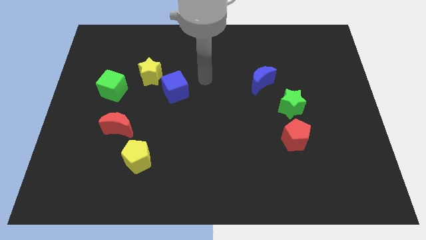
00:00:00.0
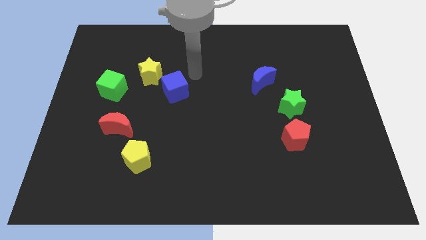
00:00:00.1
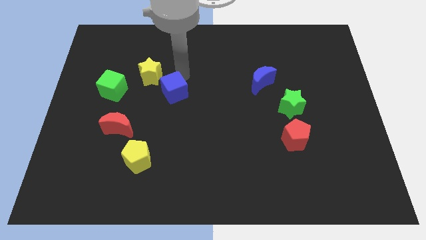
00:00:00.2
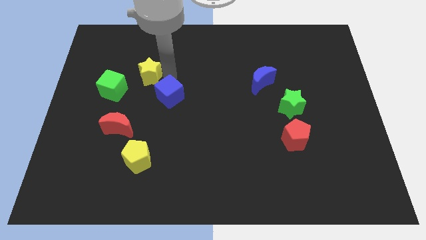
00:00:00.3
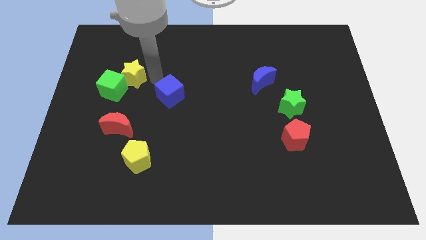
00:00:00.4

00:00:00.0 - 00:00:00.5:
separate the blue cube from the yellow star

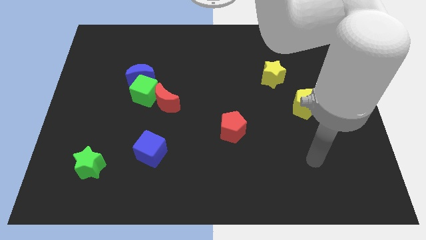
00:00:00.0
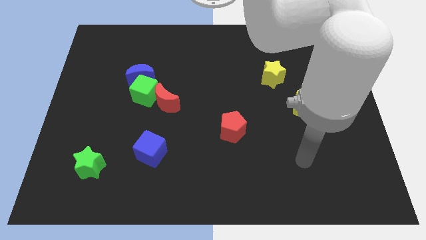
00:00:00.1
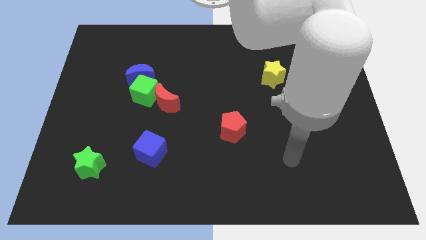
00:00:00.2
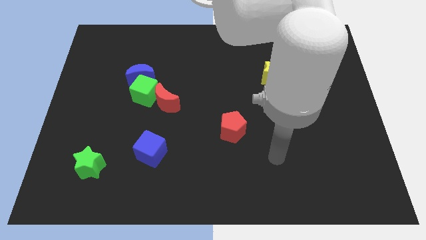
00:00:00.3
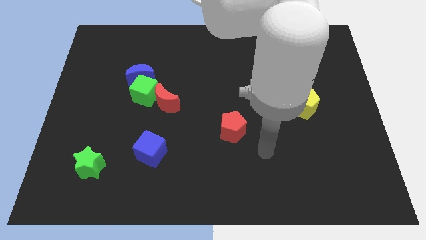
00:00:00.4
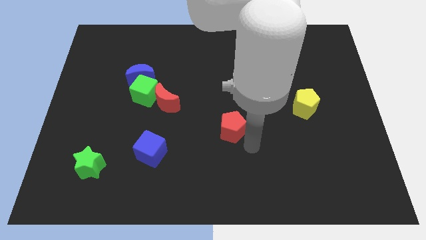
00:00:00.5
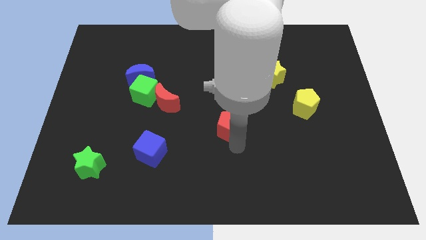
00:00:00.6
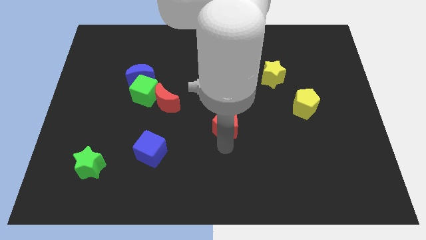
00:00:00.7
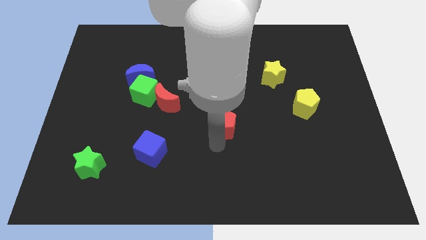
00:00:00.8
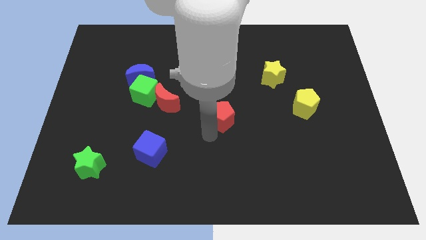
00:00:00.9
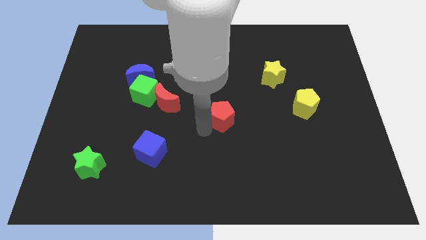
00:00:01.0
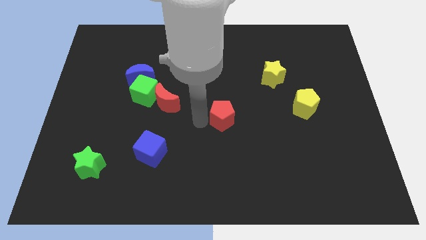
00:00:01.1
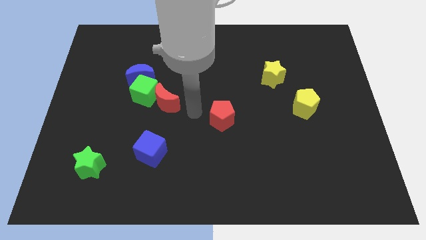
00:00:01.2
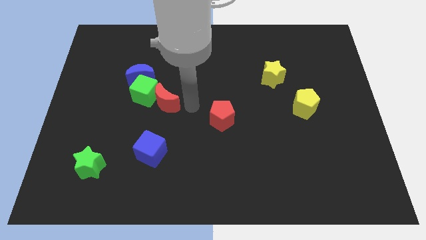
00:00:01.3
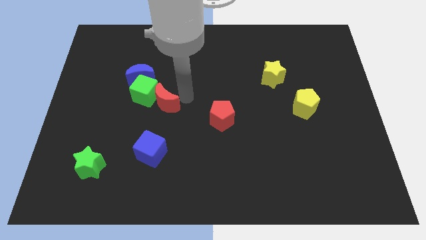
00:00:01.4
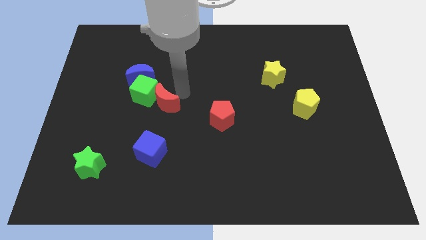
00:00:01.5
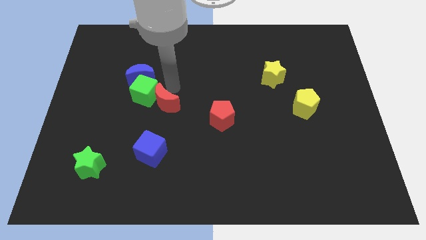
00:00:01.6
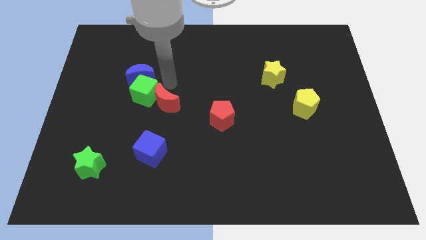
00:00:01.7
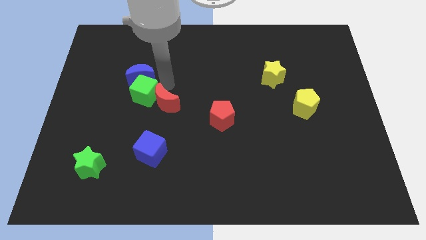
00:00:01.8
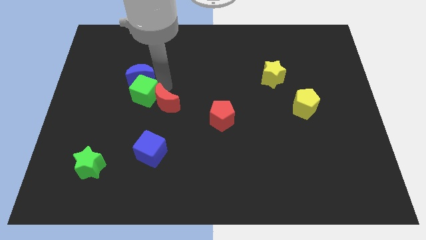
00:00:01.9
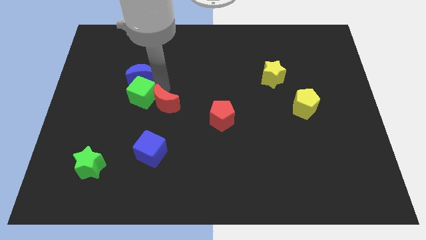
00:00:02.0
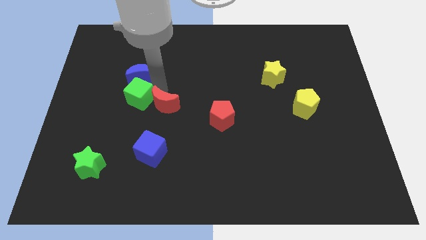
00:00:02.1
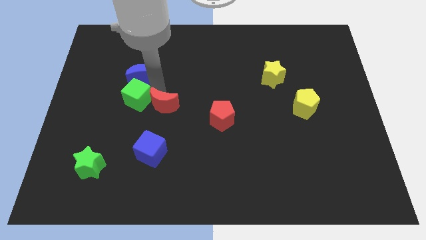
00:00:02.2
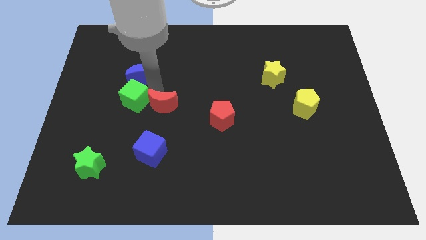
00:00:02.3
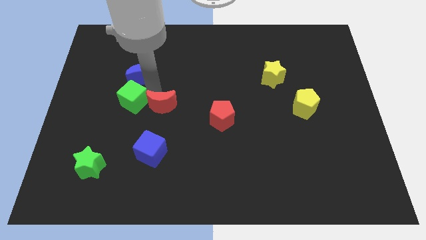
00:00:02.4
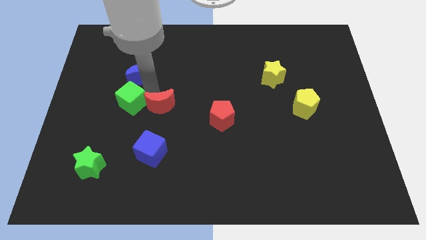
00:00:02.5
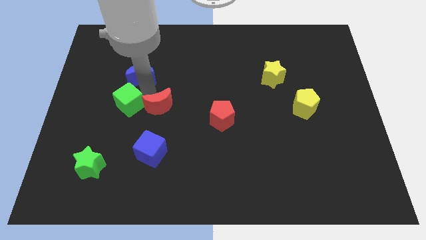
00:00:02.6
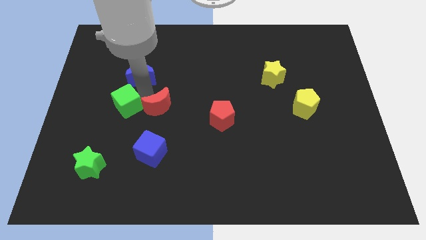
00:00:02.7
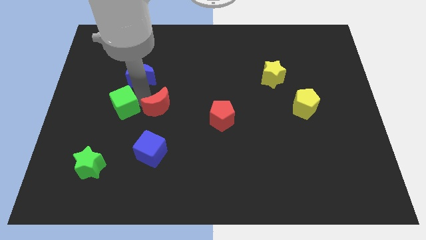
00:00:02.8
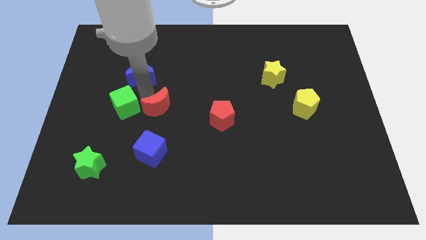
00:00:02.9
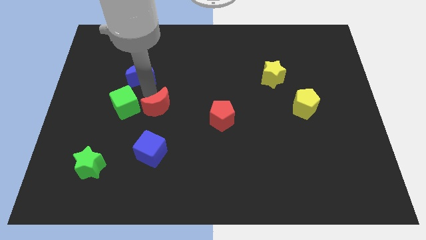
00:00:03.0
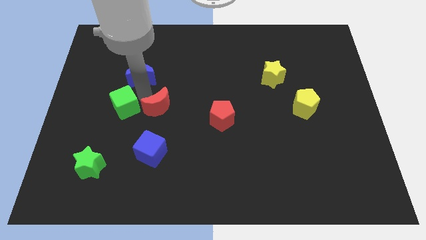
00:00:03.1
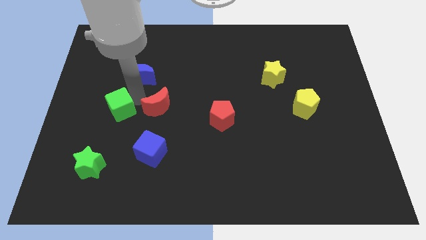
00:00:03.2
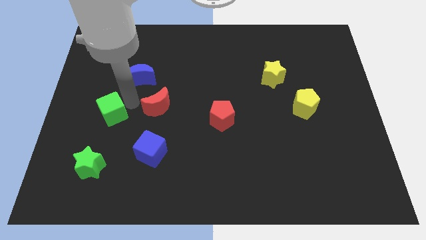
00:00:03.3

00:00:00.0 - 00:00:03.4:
separate the green cube from the blue moon and red moon

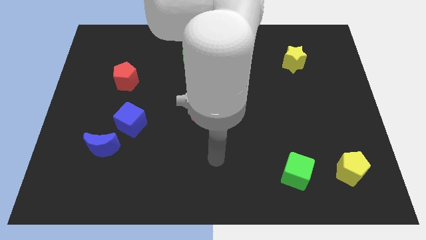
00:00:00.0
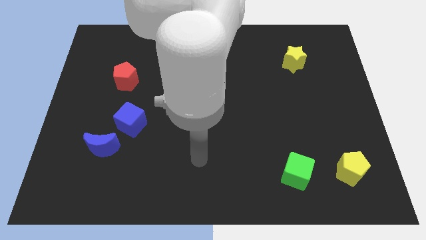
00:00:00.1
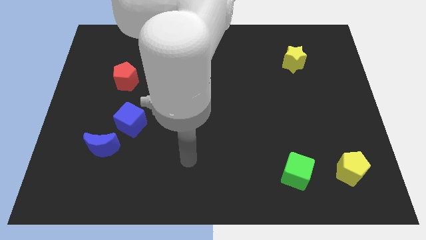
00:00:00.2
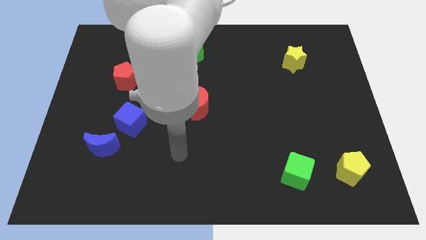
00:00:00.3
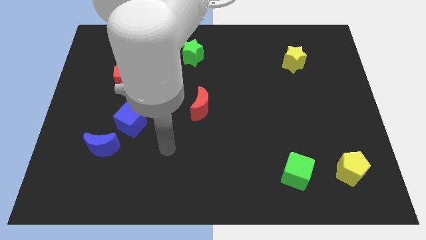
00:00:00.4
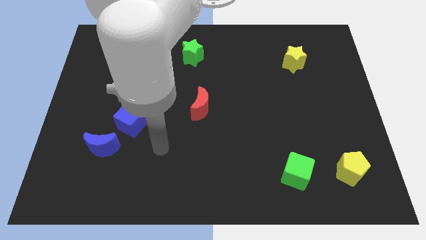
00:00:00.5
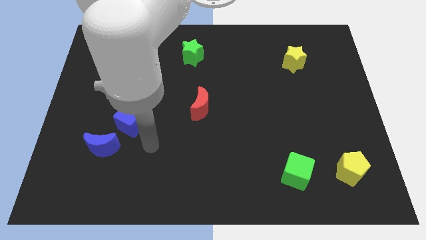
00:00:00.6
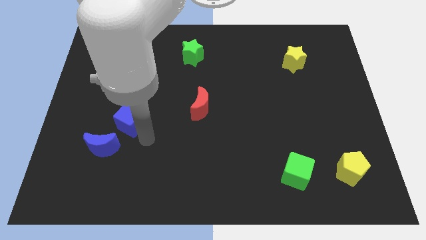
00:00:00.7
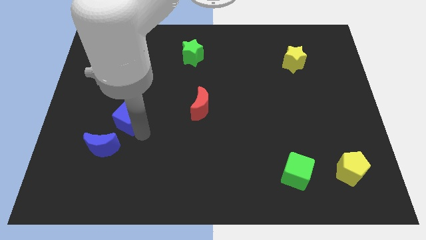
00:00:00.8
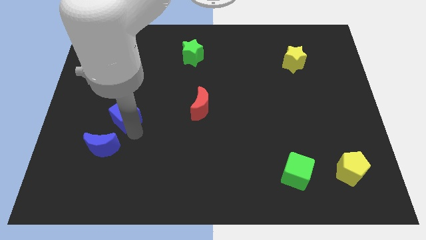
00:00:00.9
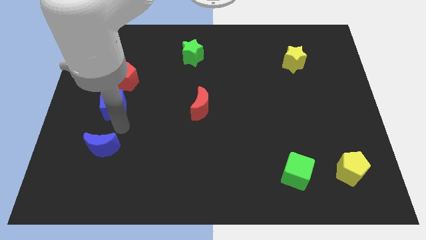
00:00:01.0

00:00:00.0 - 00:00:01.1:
move the blue moon away from the blue cube

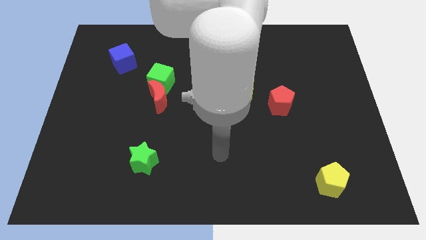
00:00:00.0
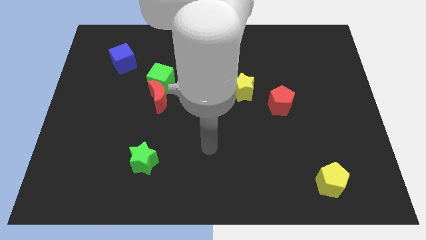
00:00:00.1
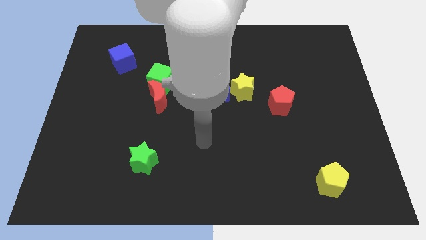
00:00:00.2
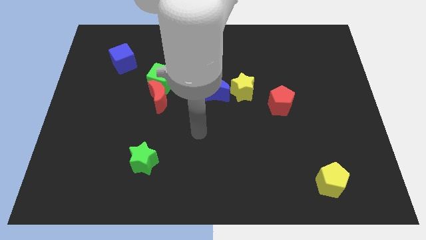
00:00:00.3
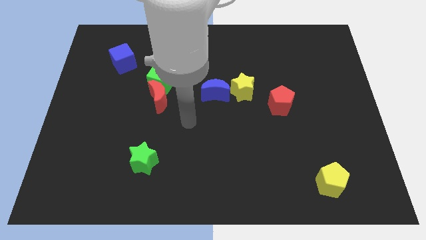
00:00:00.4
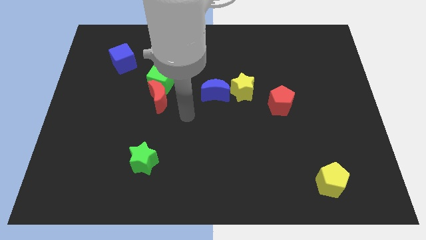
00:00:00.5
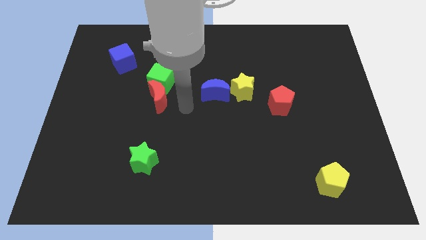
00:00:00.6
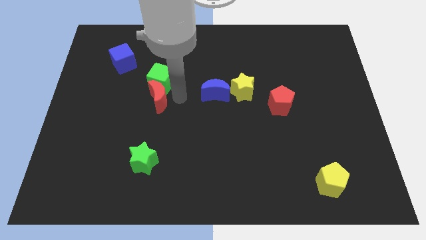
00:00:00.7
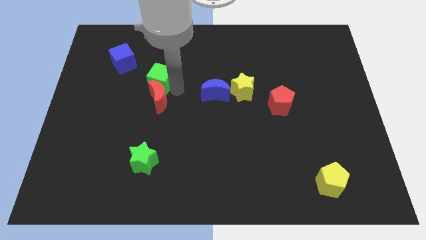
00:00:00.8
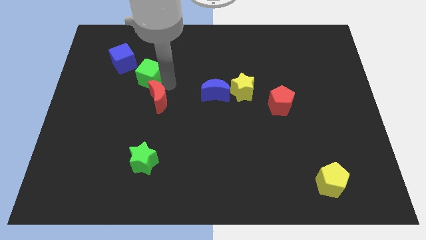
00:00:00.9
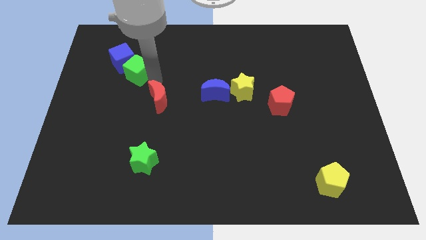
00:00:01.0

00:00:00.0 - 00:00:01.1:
move the red moon away from the green cube

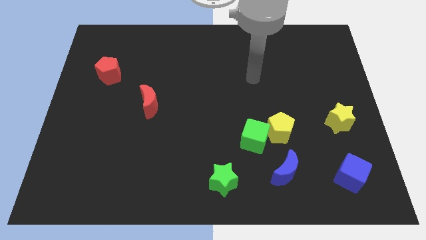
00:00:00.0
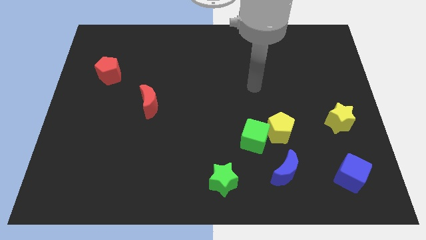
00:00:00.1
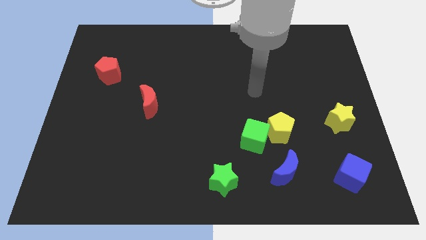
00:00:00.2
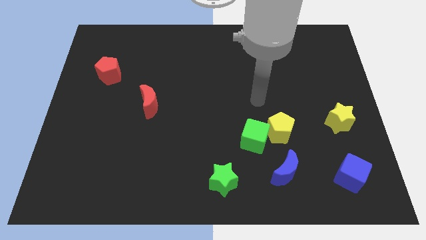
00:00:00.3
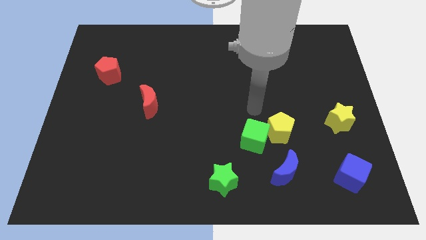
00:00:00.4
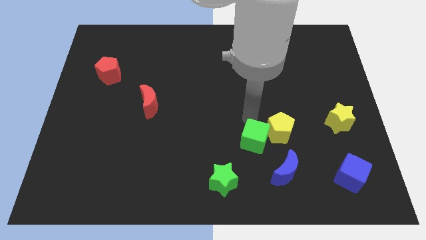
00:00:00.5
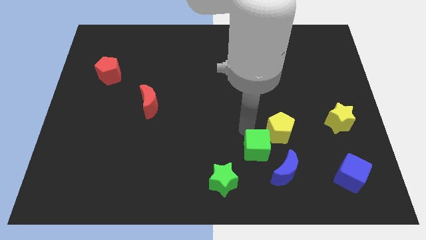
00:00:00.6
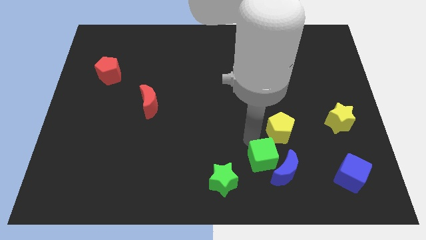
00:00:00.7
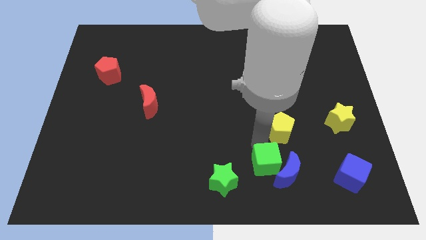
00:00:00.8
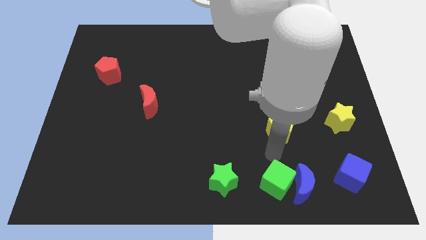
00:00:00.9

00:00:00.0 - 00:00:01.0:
separate the yellow pentagon from the green cube and blue moon

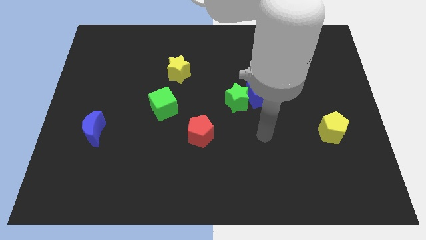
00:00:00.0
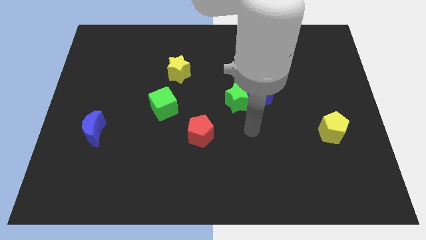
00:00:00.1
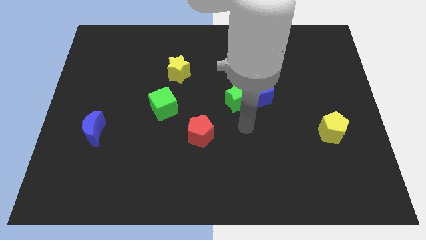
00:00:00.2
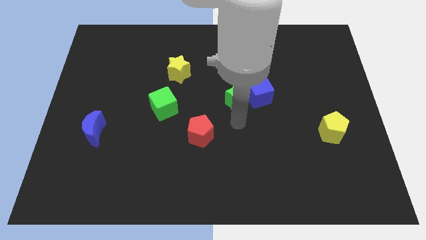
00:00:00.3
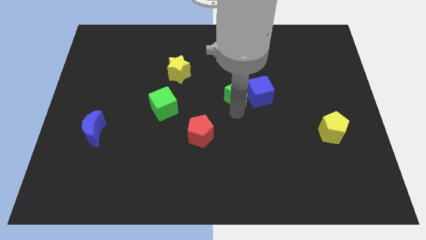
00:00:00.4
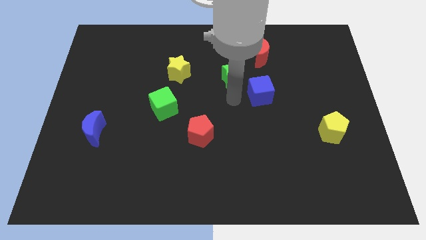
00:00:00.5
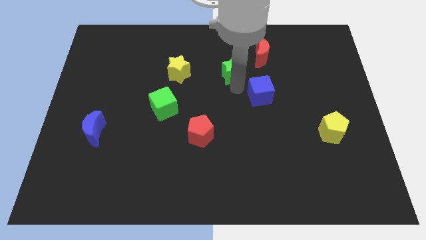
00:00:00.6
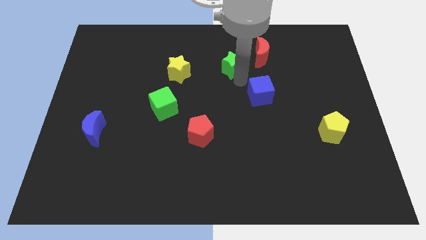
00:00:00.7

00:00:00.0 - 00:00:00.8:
pull the blue cube apart from the green star

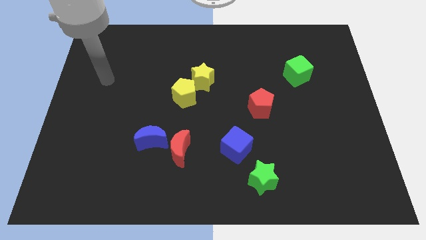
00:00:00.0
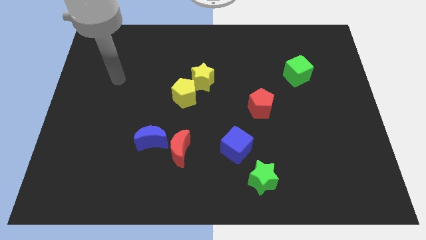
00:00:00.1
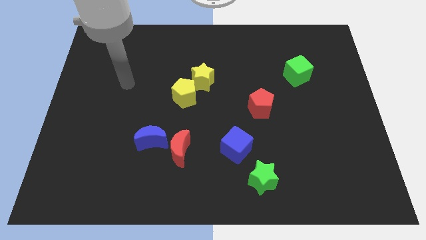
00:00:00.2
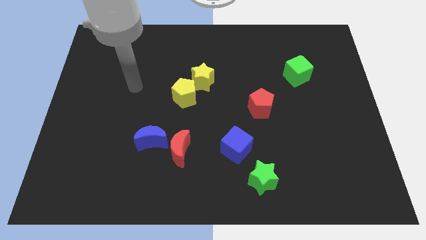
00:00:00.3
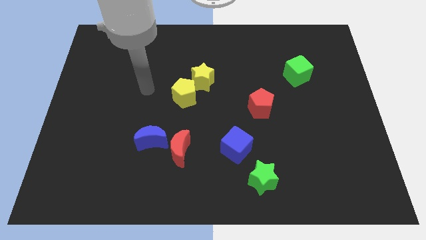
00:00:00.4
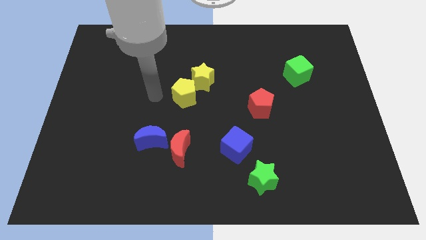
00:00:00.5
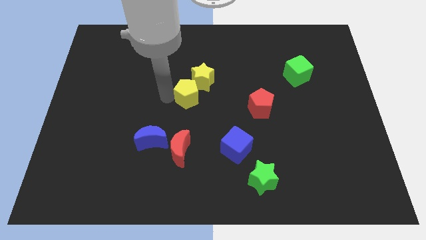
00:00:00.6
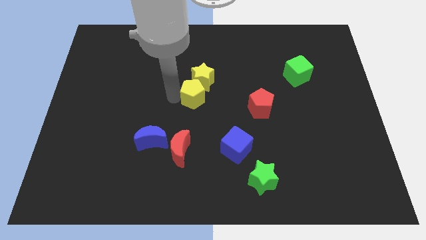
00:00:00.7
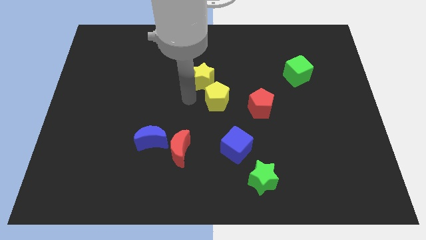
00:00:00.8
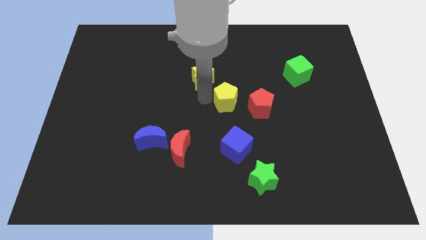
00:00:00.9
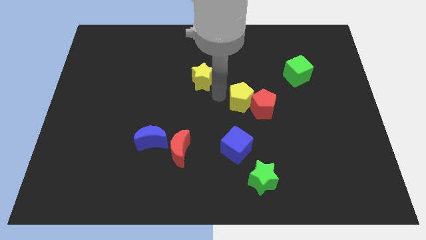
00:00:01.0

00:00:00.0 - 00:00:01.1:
separate the yellow star from the yellow pentagon

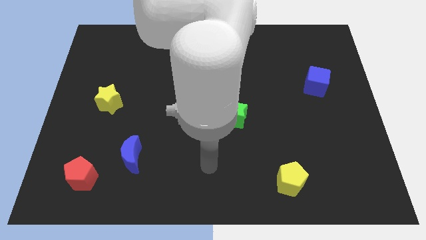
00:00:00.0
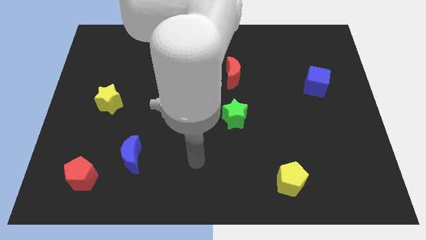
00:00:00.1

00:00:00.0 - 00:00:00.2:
pull the red pentagon apart from the blue moon

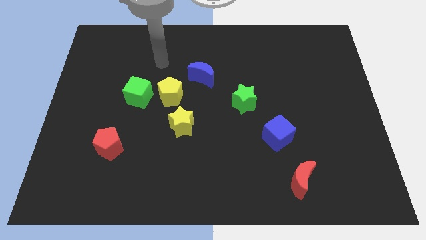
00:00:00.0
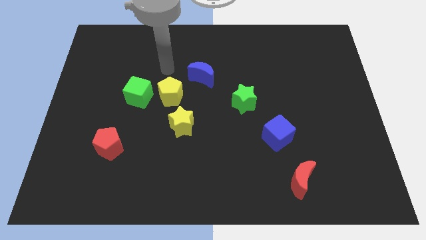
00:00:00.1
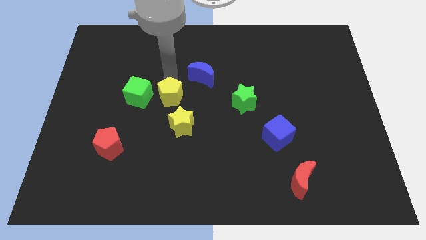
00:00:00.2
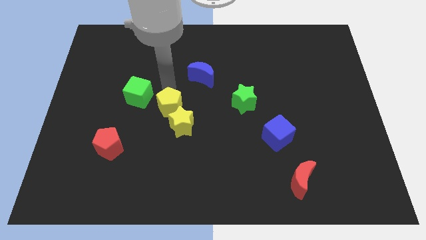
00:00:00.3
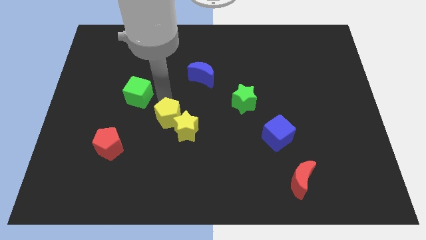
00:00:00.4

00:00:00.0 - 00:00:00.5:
separate the green cube from the yellow pentagon
